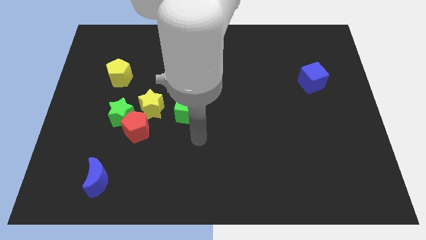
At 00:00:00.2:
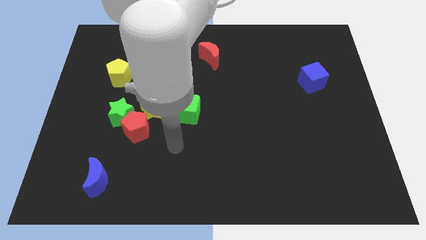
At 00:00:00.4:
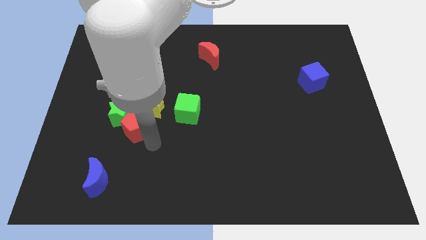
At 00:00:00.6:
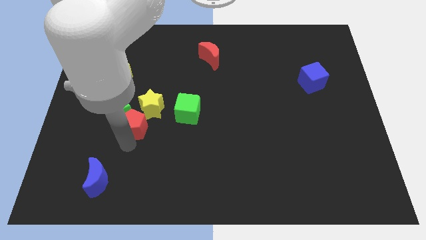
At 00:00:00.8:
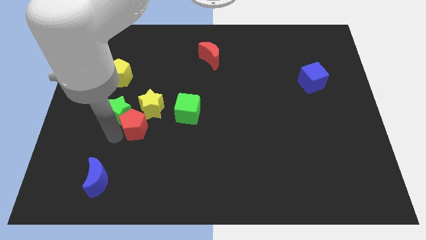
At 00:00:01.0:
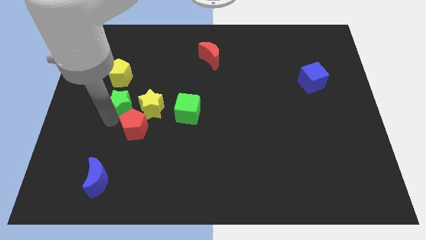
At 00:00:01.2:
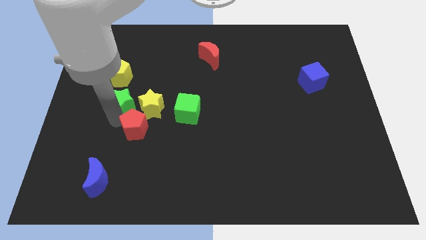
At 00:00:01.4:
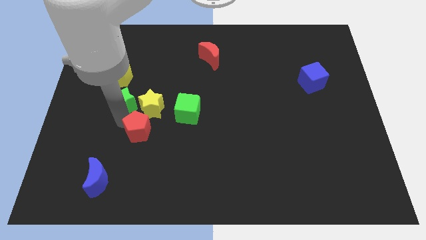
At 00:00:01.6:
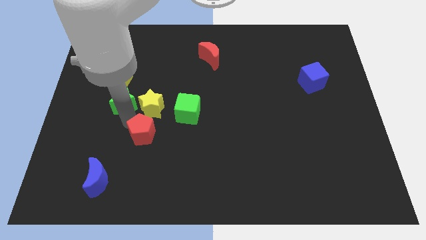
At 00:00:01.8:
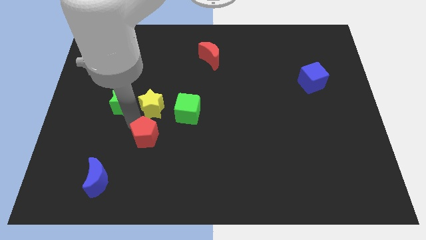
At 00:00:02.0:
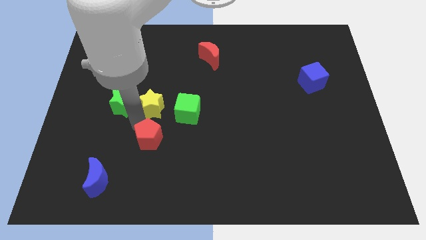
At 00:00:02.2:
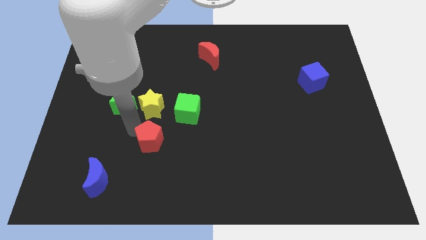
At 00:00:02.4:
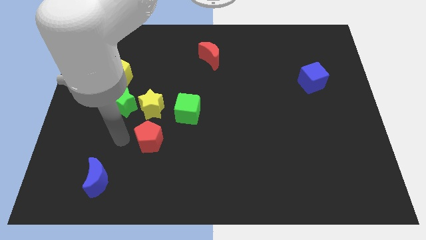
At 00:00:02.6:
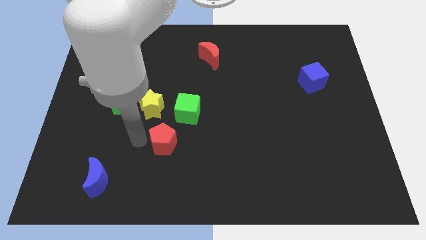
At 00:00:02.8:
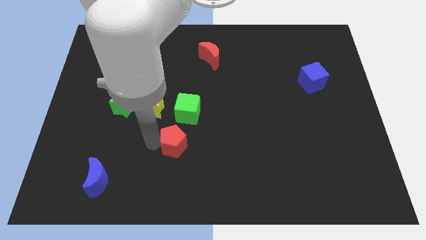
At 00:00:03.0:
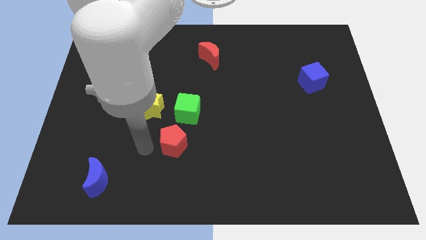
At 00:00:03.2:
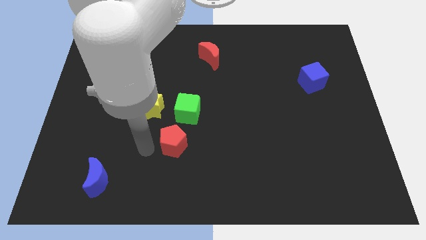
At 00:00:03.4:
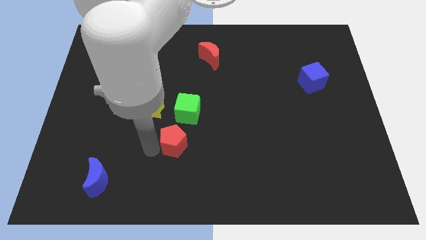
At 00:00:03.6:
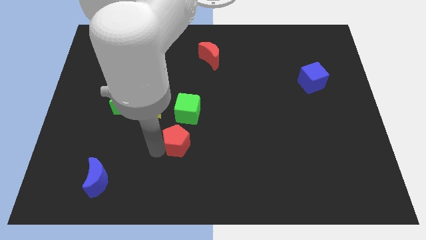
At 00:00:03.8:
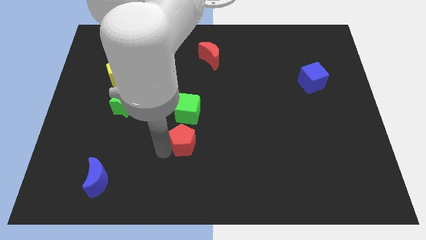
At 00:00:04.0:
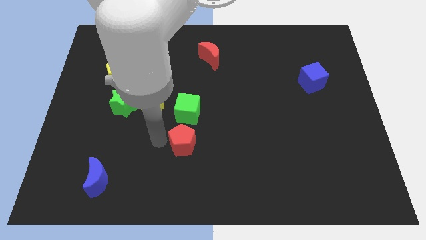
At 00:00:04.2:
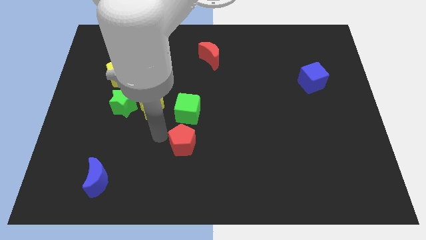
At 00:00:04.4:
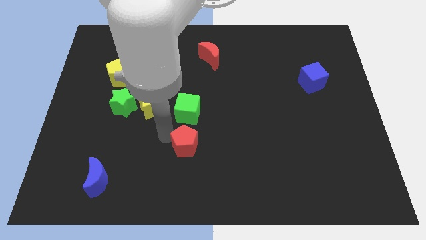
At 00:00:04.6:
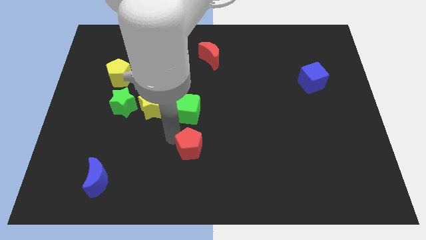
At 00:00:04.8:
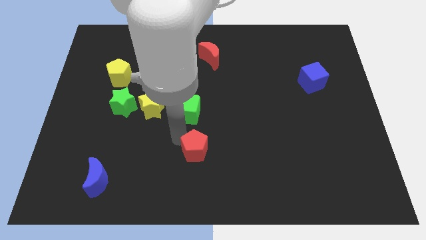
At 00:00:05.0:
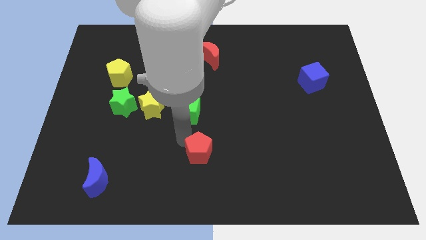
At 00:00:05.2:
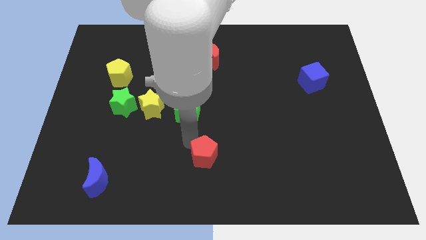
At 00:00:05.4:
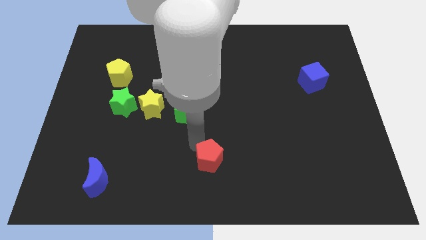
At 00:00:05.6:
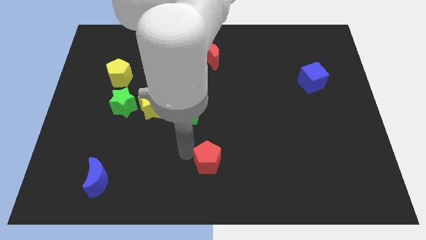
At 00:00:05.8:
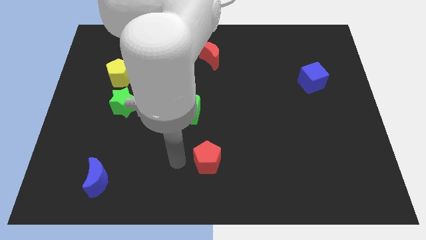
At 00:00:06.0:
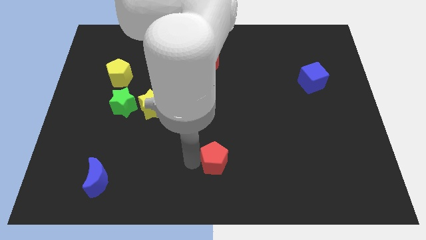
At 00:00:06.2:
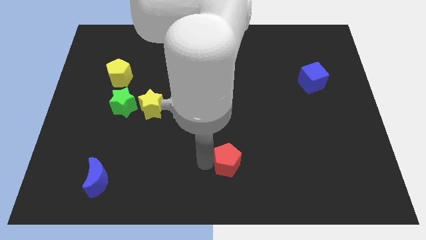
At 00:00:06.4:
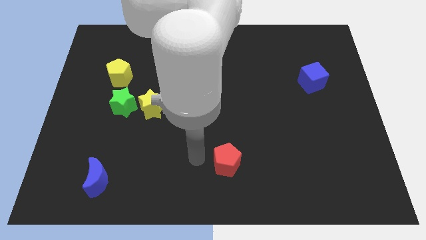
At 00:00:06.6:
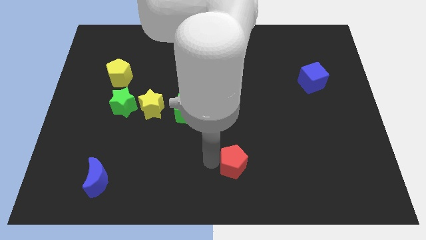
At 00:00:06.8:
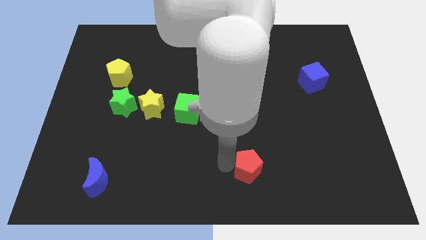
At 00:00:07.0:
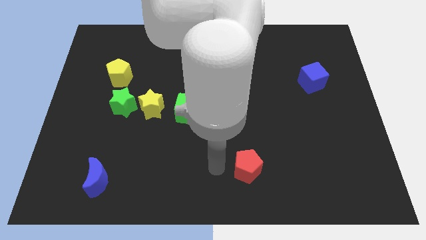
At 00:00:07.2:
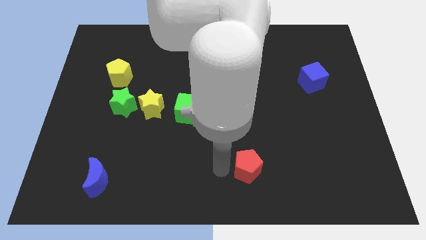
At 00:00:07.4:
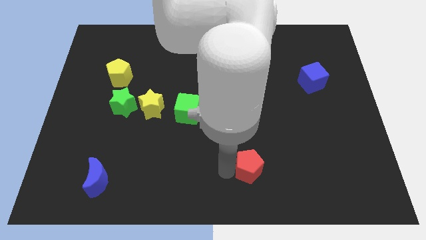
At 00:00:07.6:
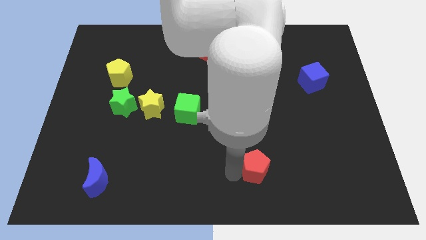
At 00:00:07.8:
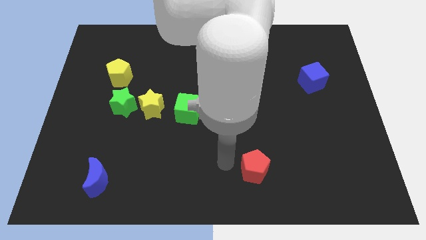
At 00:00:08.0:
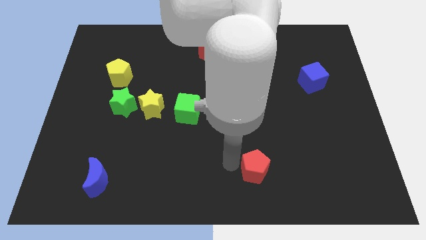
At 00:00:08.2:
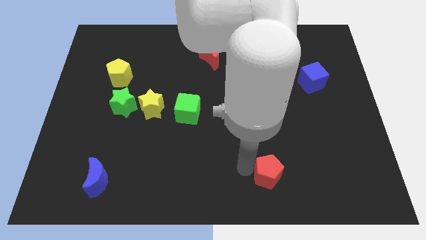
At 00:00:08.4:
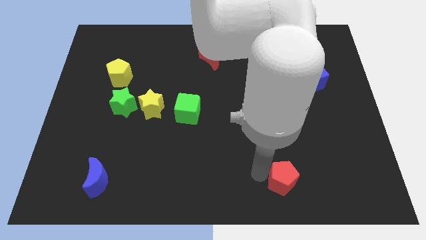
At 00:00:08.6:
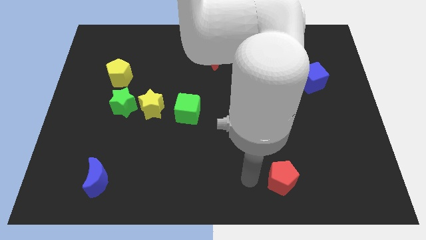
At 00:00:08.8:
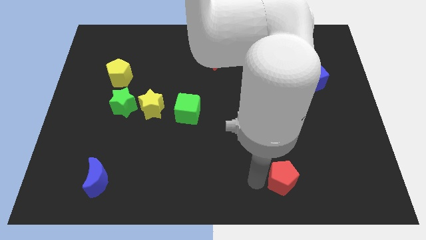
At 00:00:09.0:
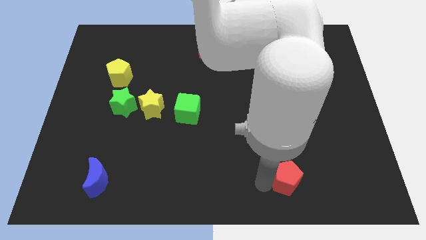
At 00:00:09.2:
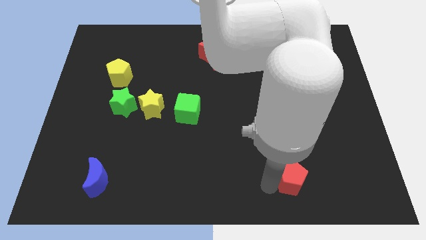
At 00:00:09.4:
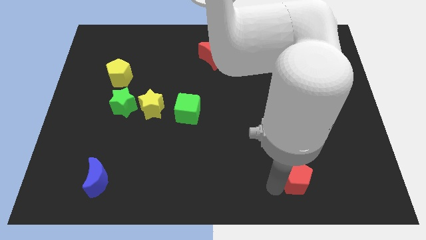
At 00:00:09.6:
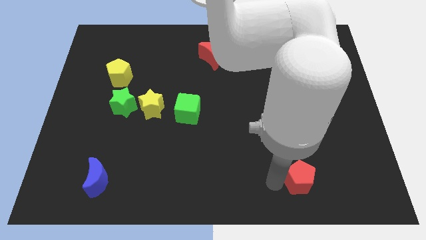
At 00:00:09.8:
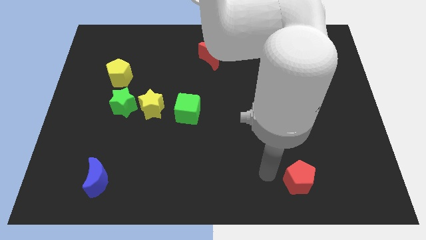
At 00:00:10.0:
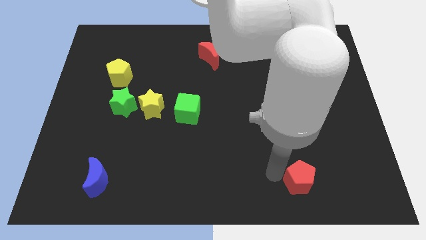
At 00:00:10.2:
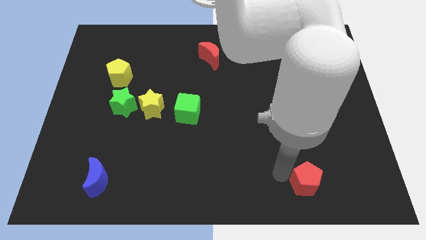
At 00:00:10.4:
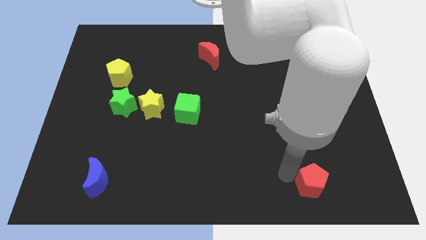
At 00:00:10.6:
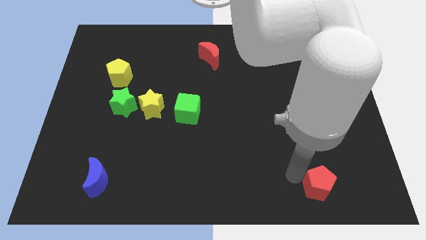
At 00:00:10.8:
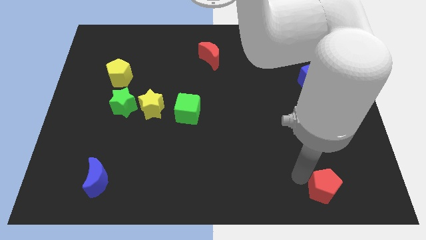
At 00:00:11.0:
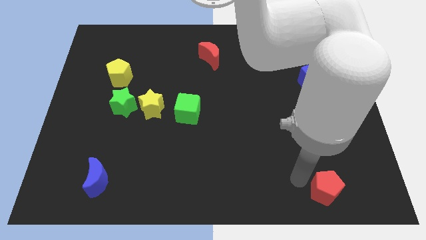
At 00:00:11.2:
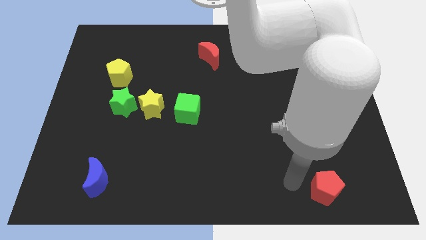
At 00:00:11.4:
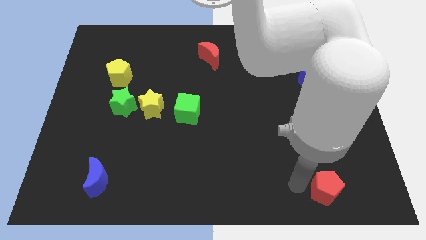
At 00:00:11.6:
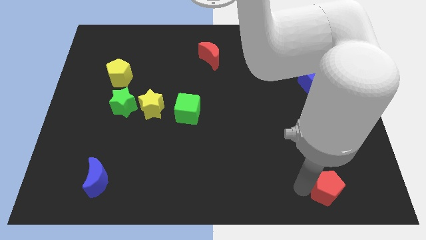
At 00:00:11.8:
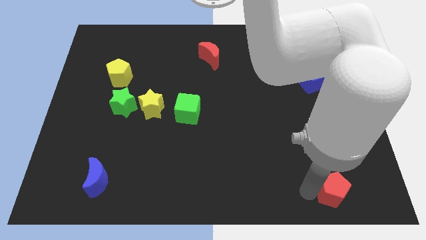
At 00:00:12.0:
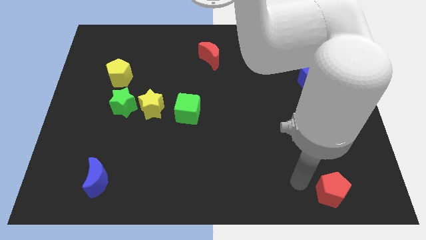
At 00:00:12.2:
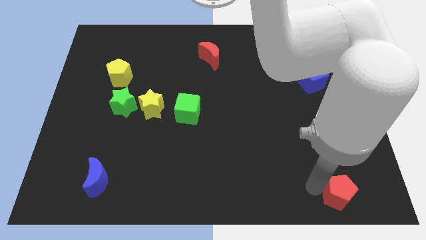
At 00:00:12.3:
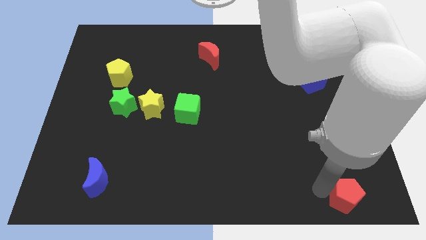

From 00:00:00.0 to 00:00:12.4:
push the red pentagon to the bottom right of the board
